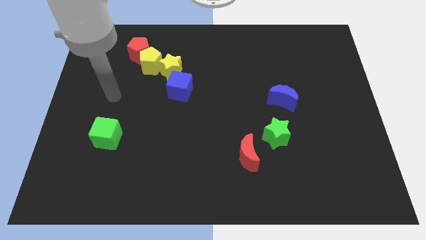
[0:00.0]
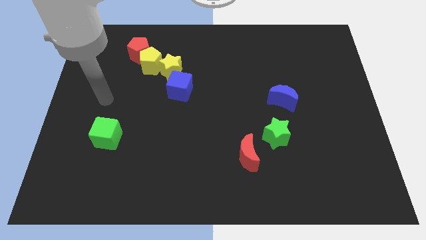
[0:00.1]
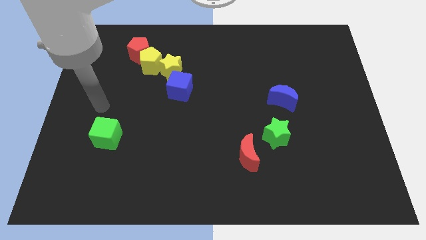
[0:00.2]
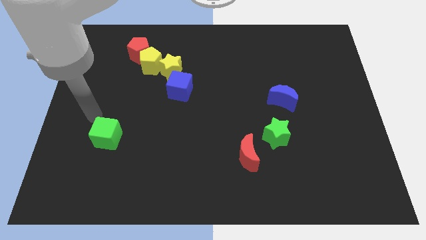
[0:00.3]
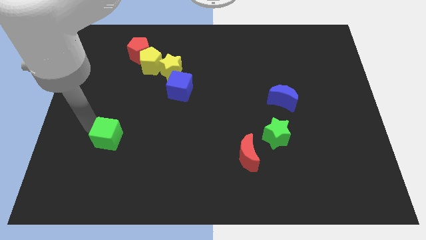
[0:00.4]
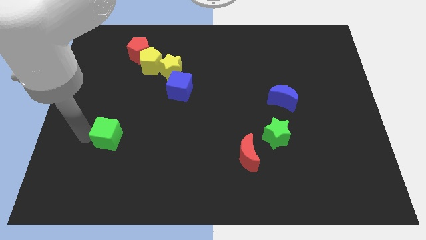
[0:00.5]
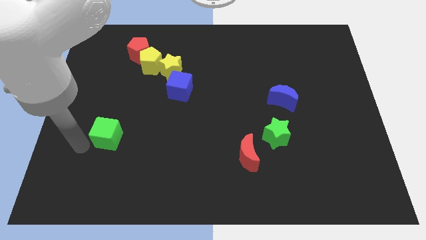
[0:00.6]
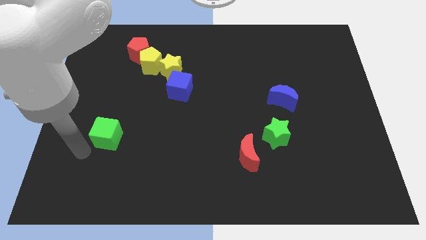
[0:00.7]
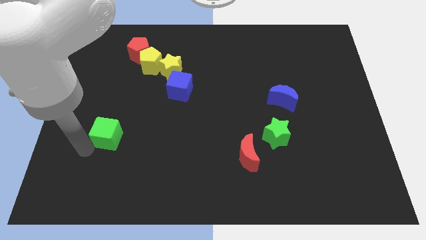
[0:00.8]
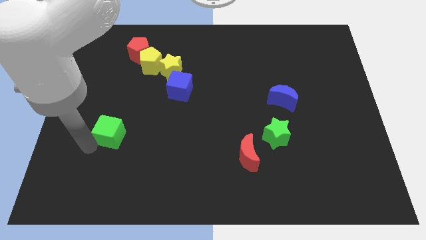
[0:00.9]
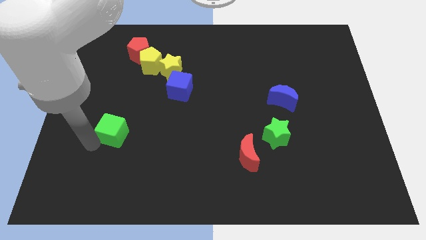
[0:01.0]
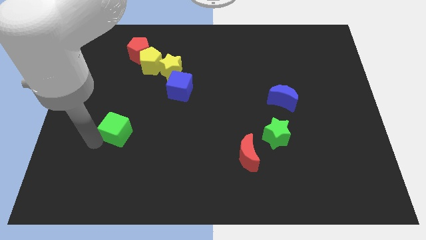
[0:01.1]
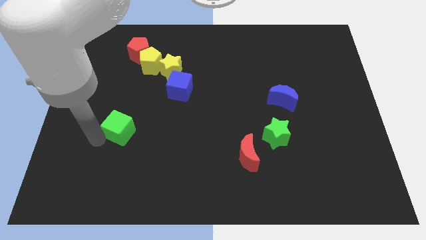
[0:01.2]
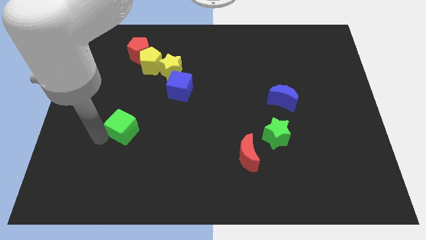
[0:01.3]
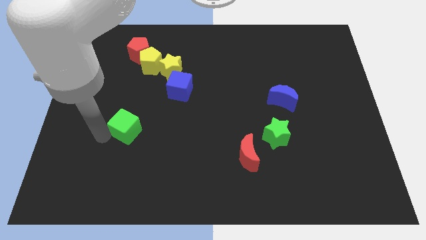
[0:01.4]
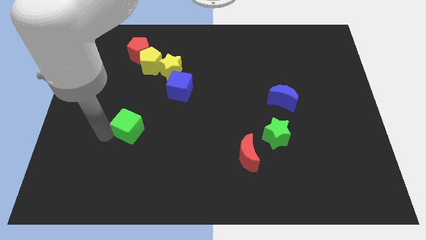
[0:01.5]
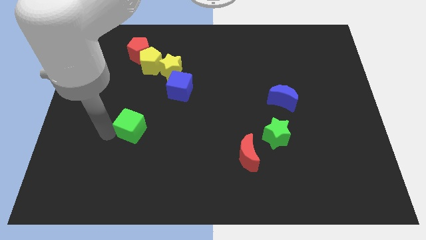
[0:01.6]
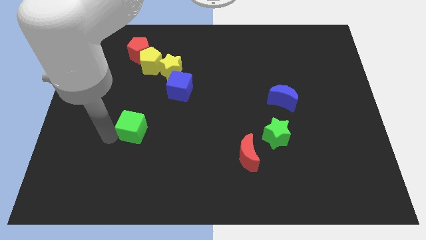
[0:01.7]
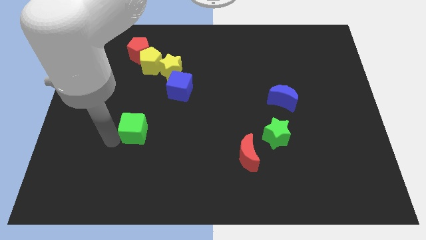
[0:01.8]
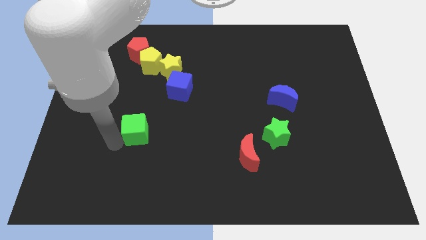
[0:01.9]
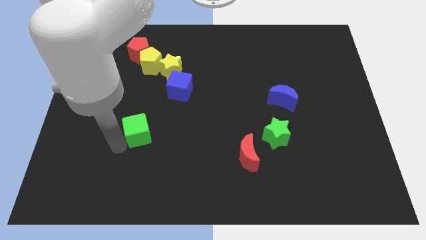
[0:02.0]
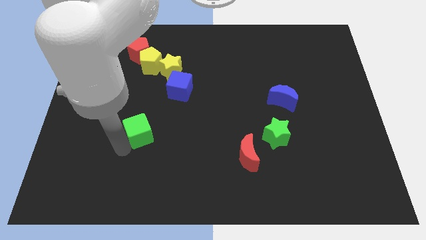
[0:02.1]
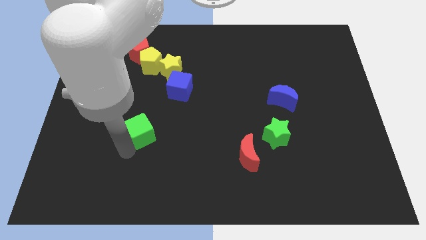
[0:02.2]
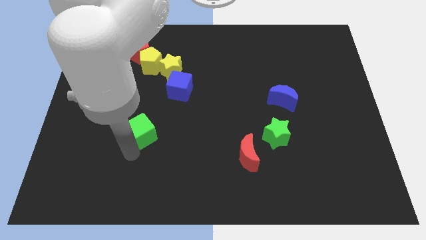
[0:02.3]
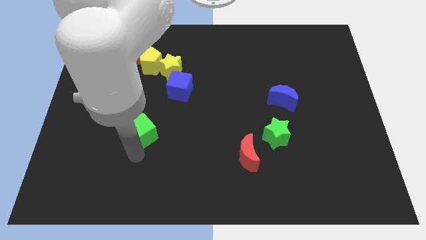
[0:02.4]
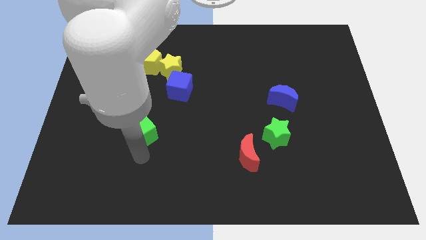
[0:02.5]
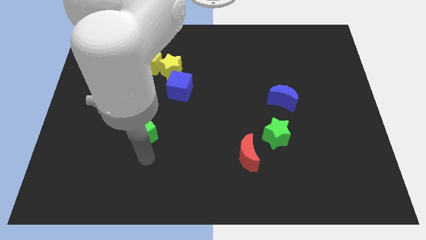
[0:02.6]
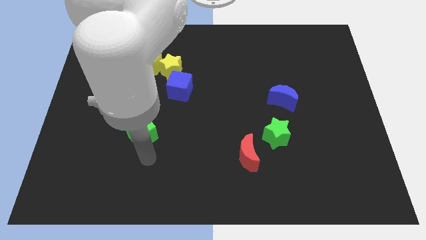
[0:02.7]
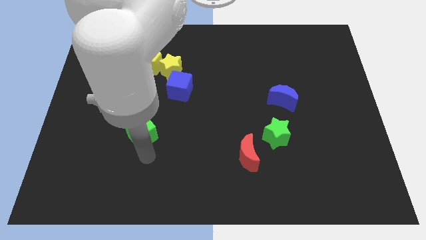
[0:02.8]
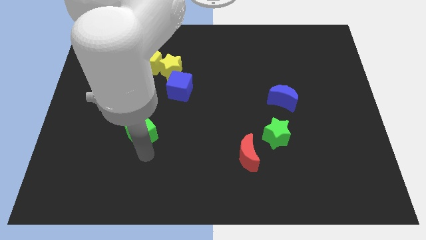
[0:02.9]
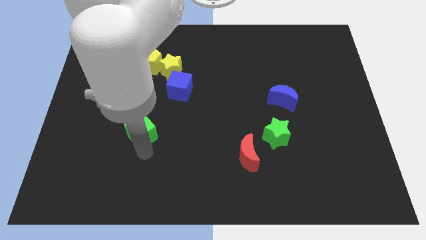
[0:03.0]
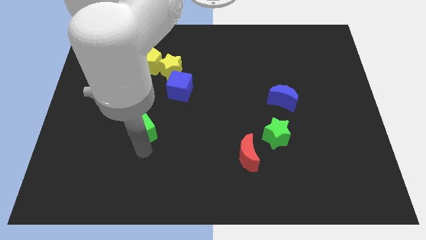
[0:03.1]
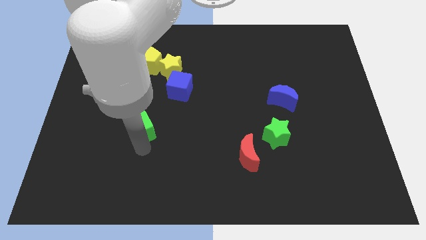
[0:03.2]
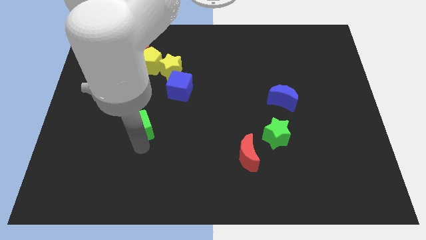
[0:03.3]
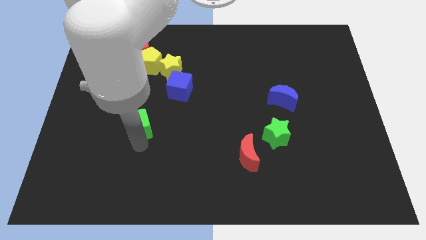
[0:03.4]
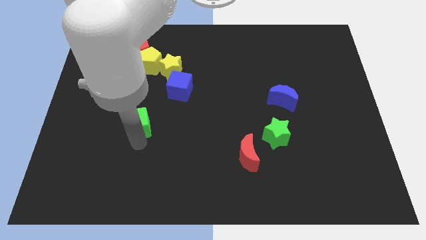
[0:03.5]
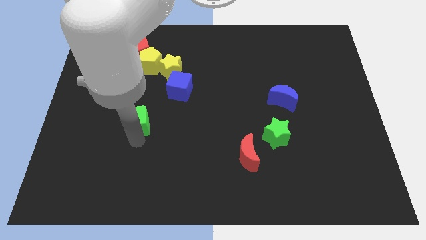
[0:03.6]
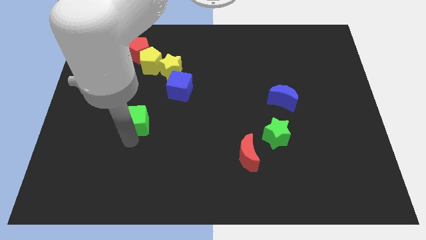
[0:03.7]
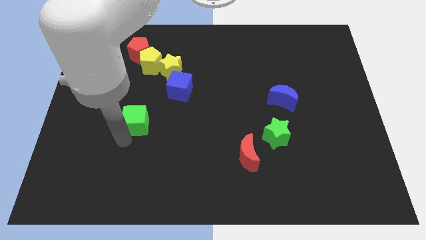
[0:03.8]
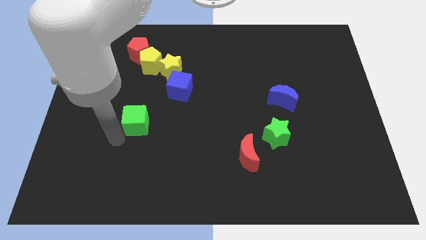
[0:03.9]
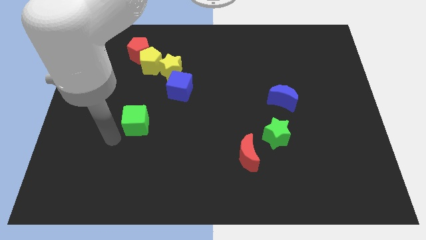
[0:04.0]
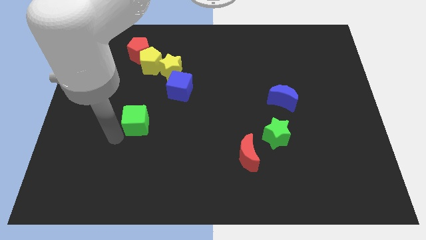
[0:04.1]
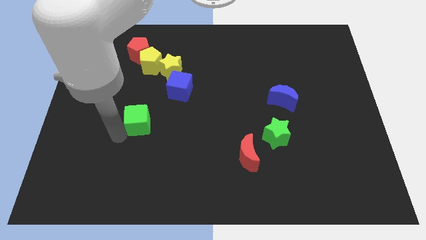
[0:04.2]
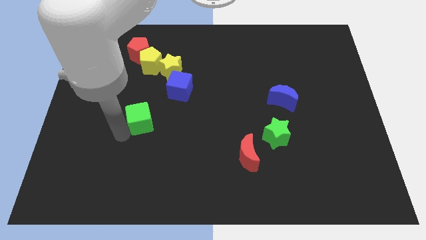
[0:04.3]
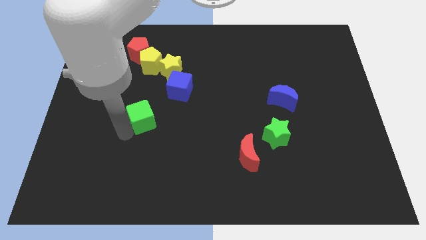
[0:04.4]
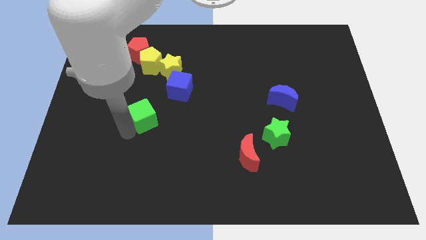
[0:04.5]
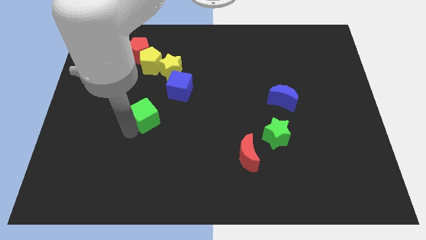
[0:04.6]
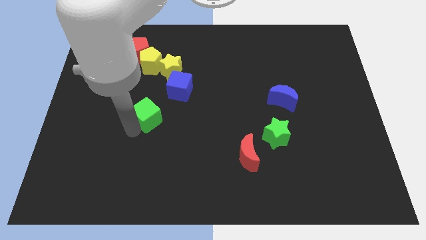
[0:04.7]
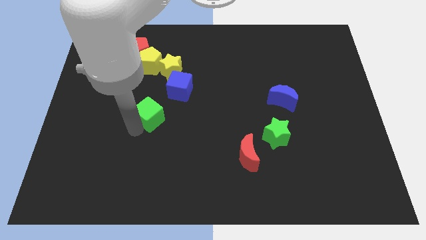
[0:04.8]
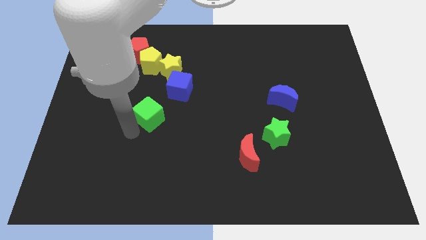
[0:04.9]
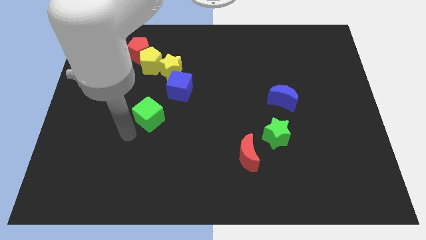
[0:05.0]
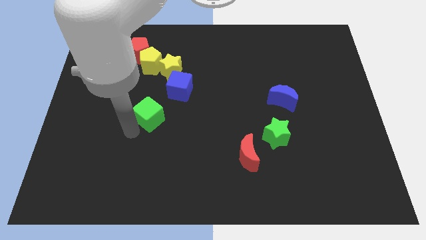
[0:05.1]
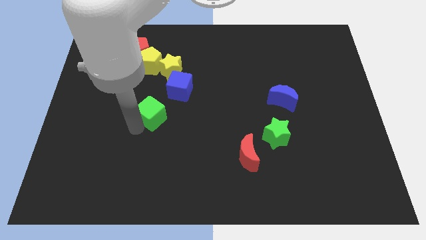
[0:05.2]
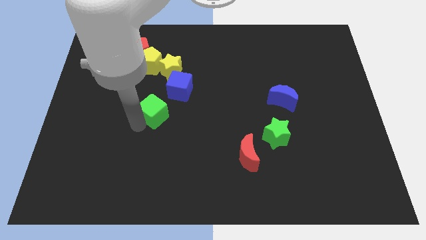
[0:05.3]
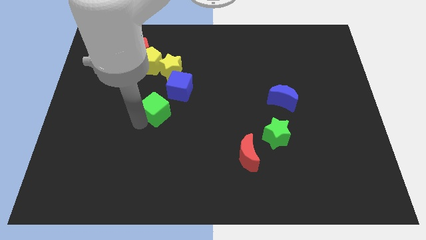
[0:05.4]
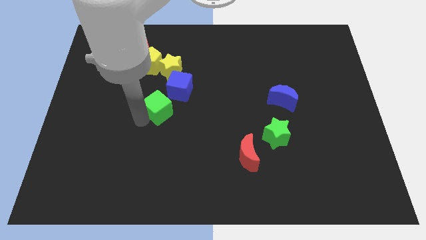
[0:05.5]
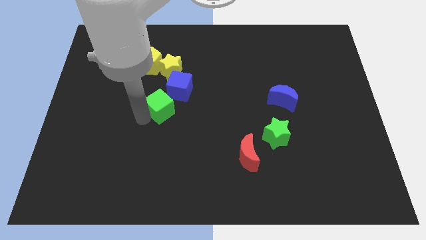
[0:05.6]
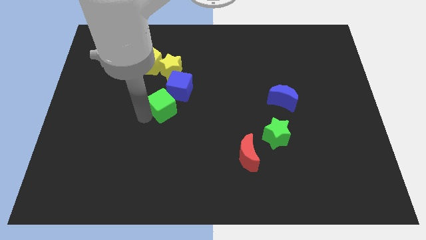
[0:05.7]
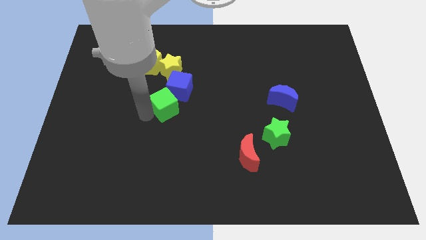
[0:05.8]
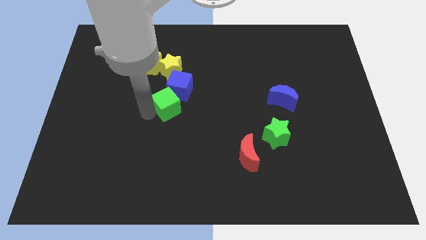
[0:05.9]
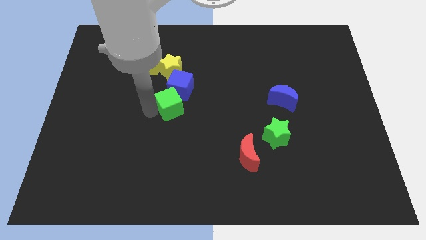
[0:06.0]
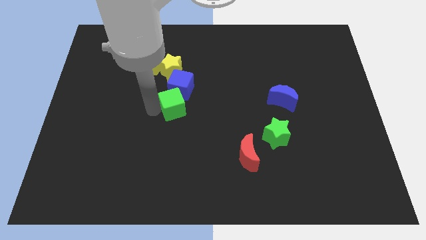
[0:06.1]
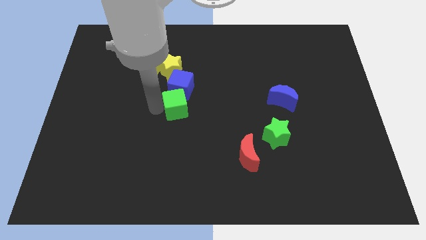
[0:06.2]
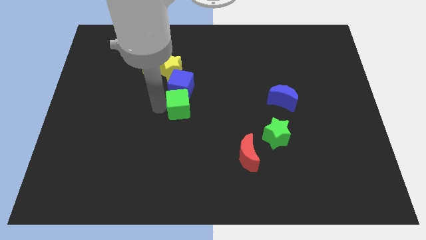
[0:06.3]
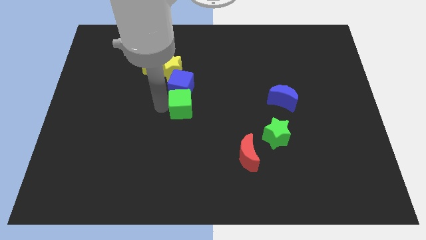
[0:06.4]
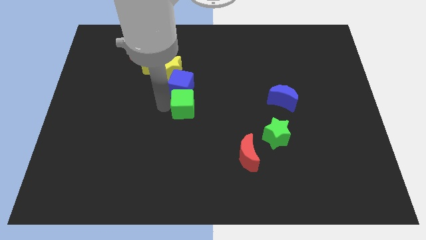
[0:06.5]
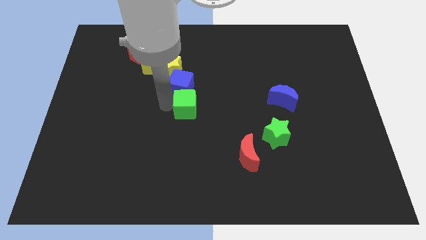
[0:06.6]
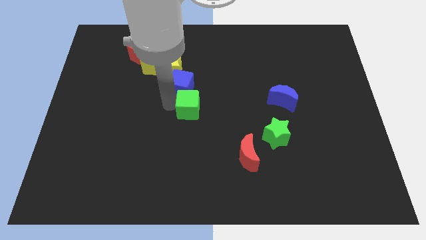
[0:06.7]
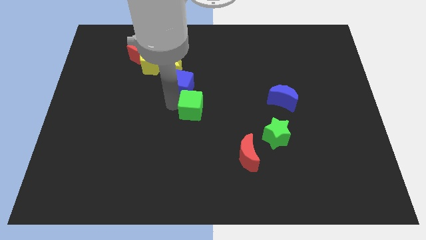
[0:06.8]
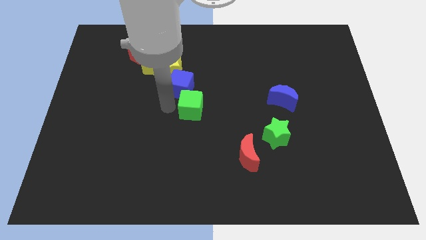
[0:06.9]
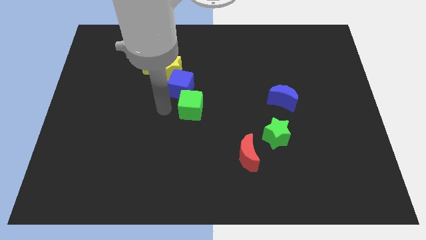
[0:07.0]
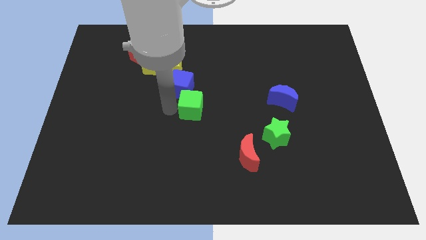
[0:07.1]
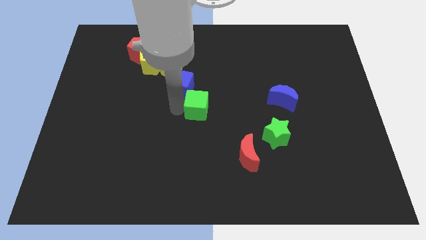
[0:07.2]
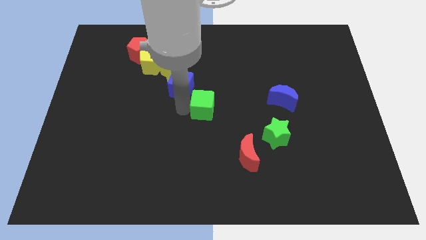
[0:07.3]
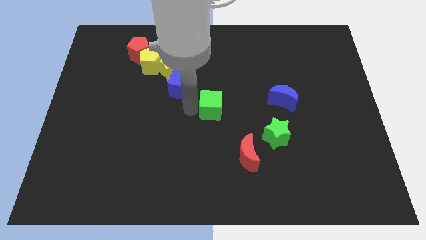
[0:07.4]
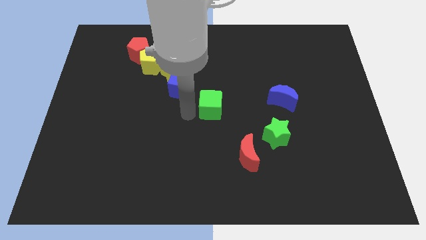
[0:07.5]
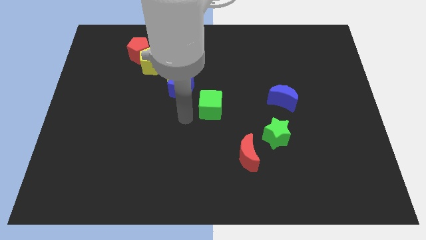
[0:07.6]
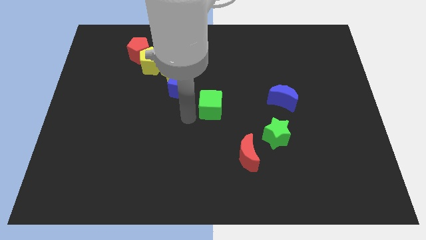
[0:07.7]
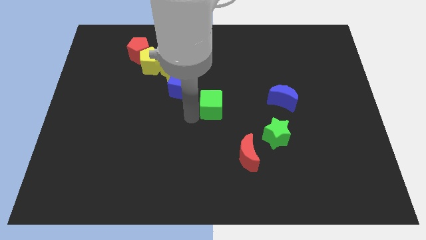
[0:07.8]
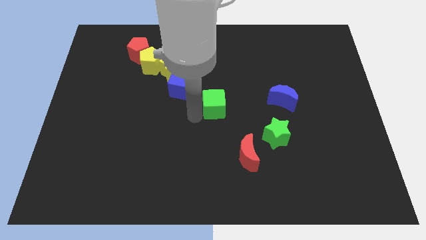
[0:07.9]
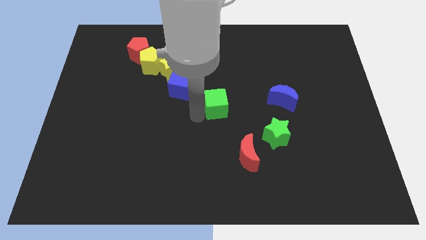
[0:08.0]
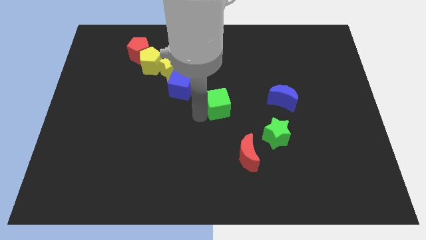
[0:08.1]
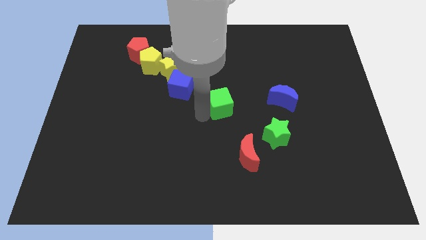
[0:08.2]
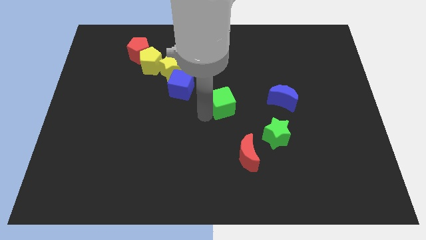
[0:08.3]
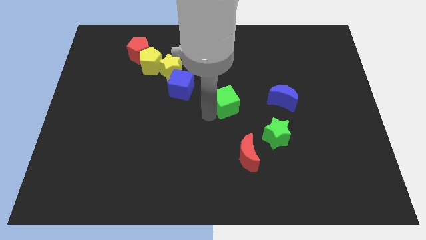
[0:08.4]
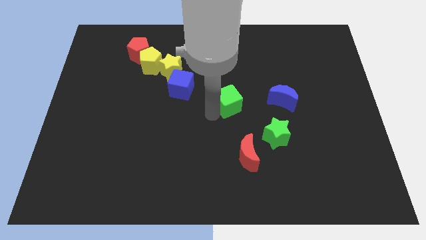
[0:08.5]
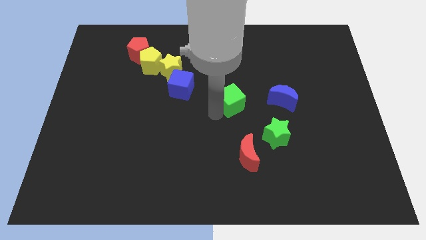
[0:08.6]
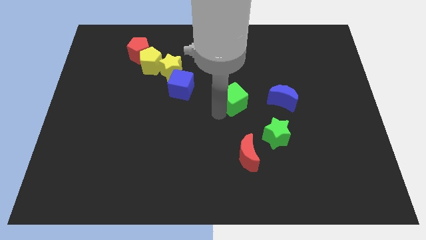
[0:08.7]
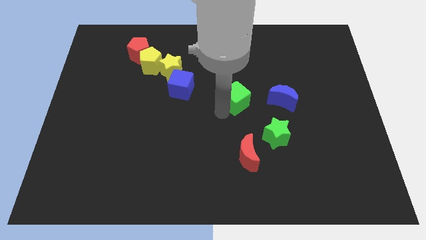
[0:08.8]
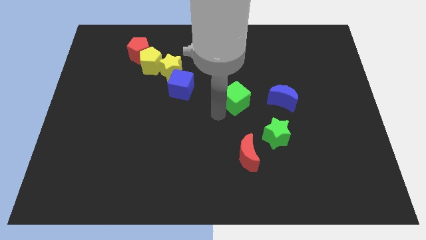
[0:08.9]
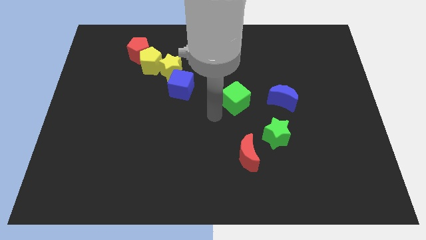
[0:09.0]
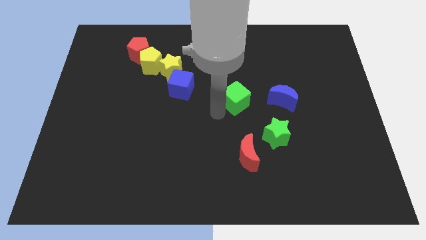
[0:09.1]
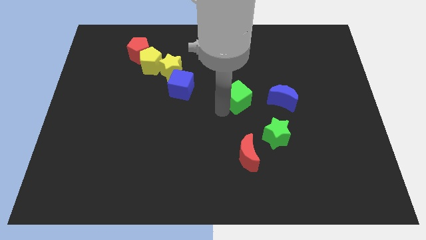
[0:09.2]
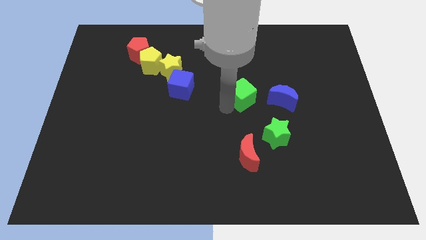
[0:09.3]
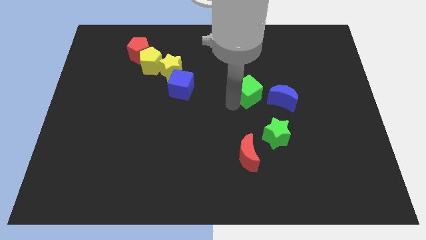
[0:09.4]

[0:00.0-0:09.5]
put the green cube to the top left side of the blue moon
